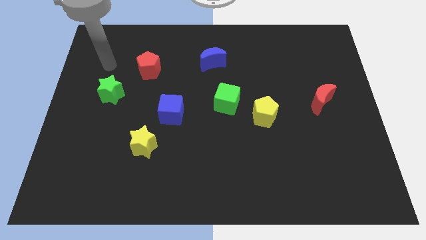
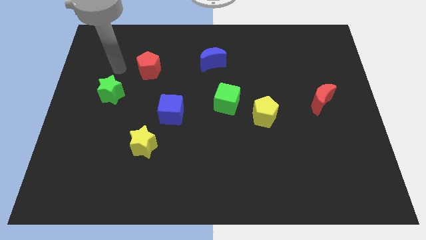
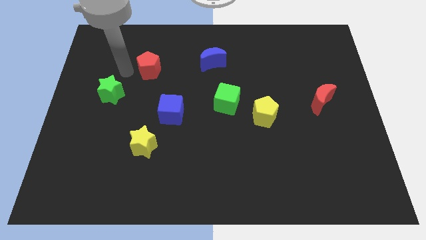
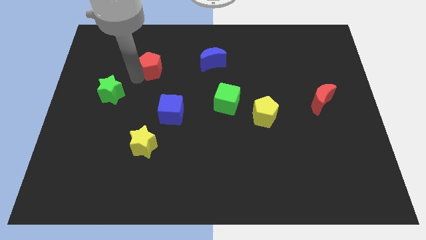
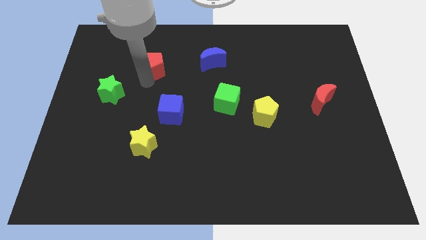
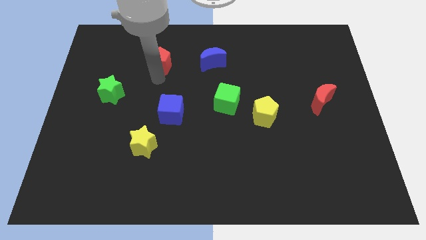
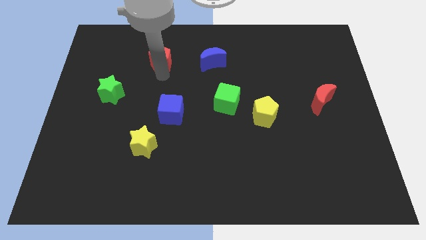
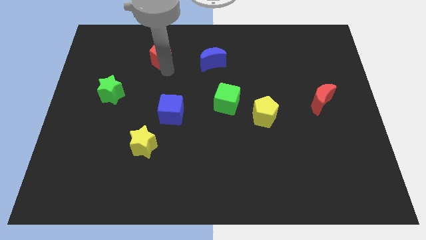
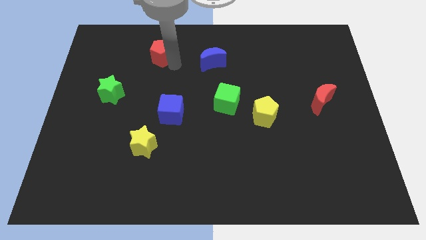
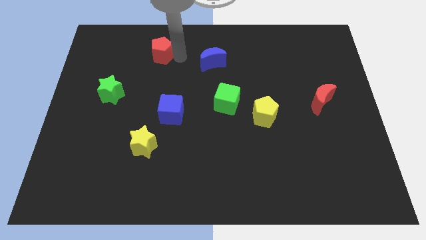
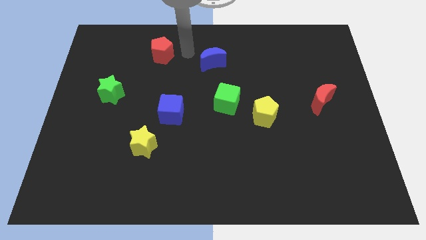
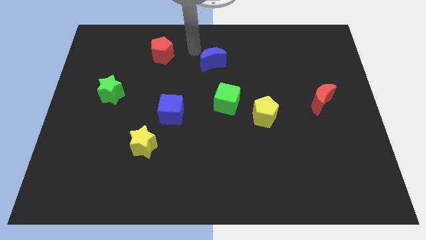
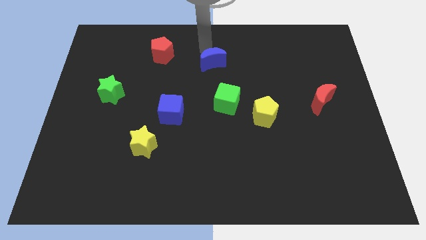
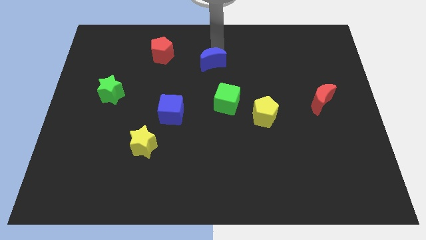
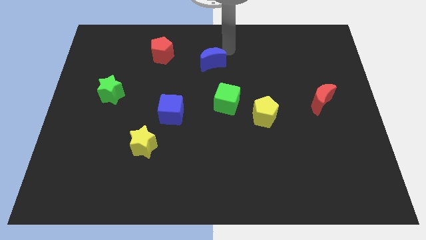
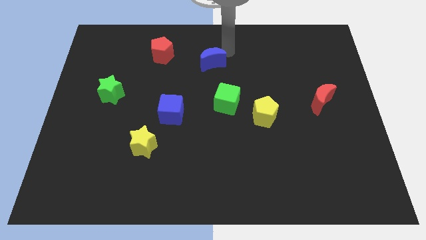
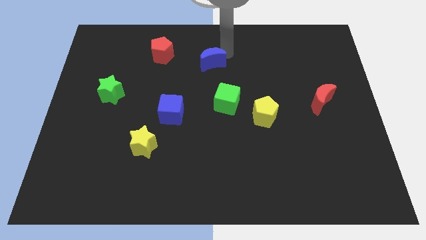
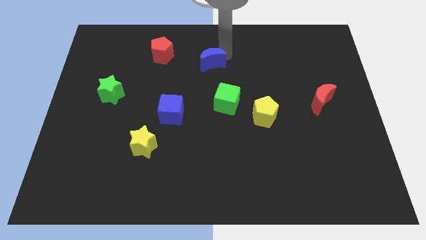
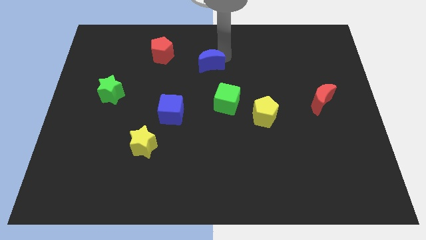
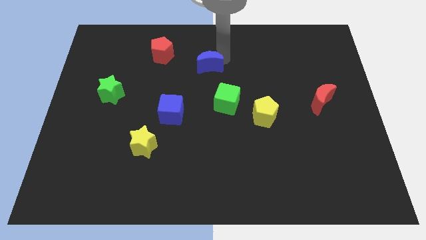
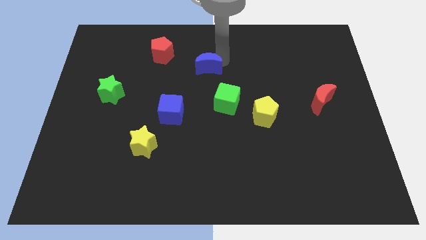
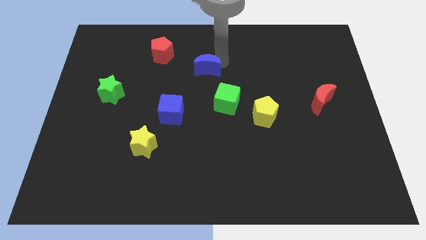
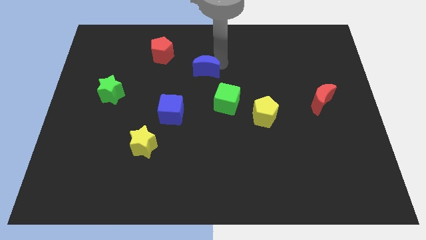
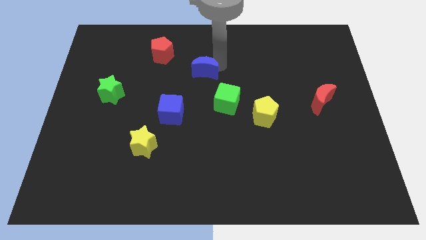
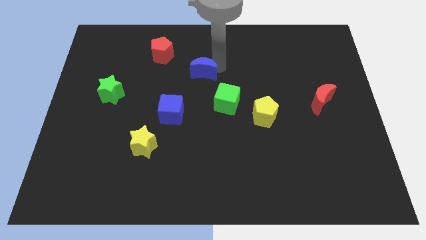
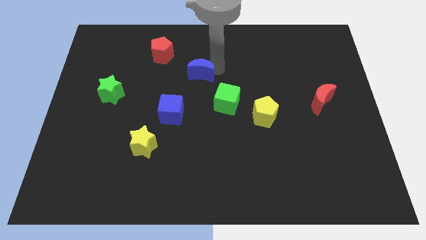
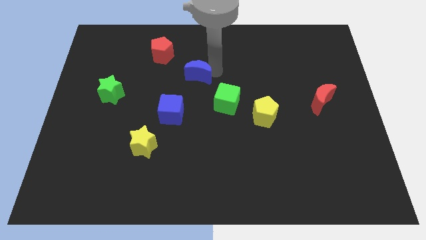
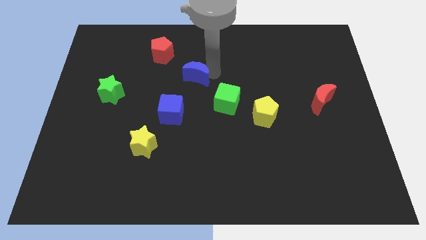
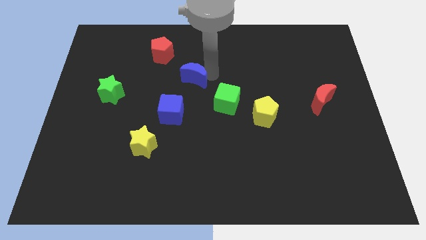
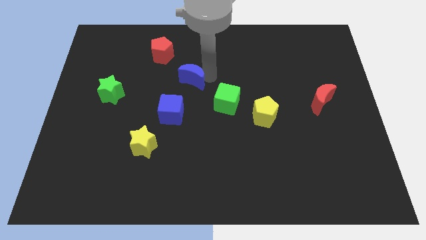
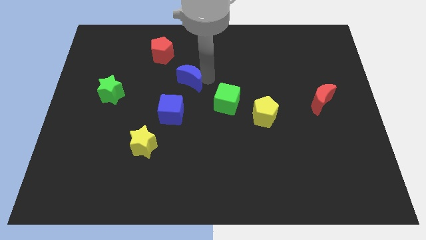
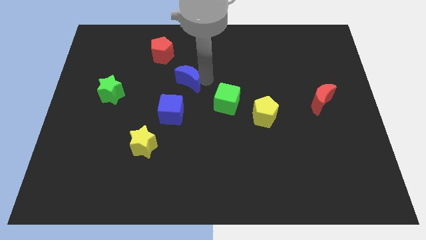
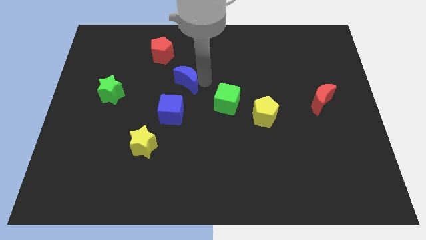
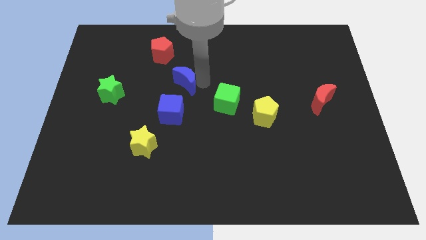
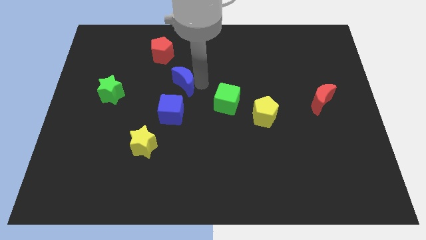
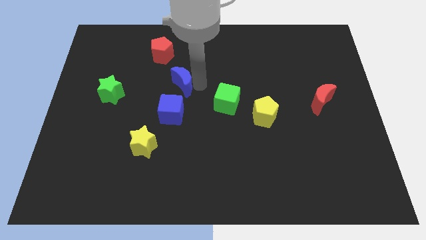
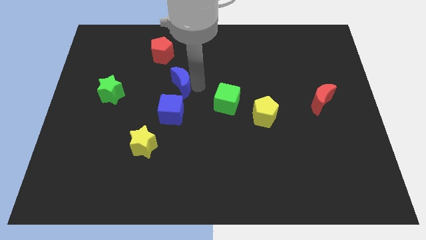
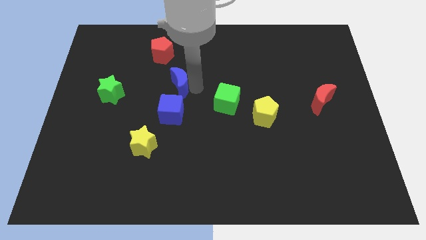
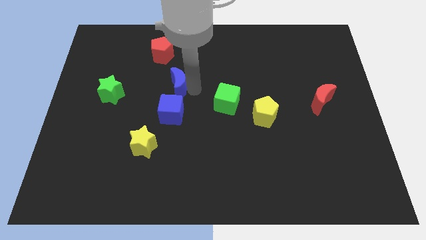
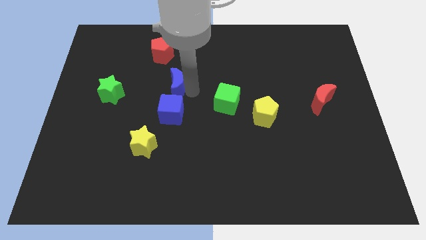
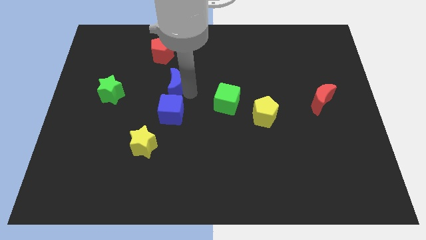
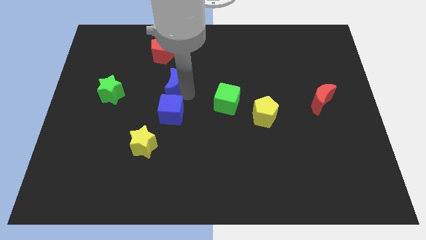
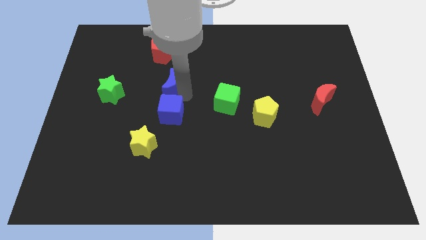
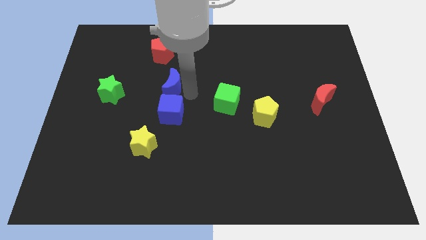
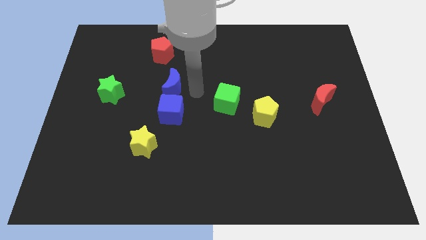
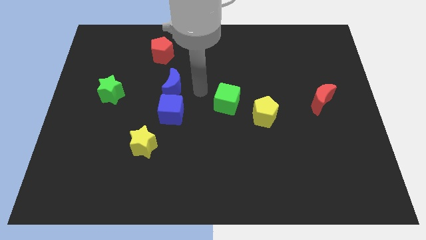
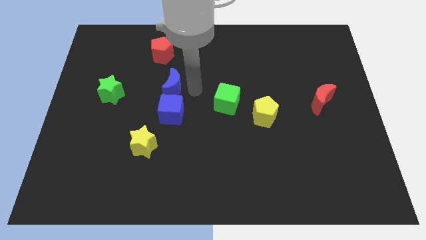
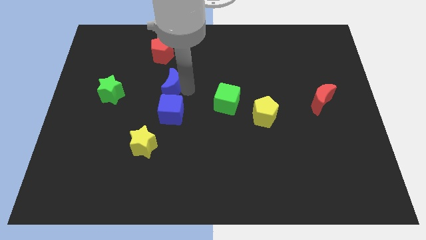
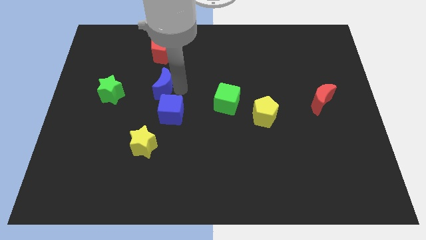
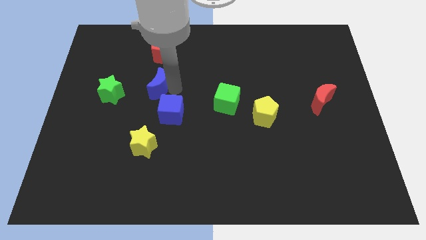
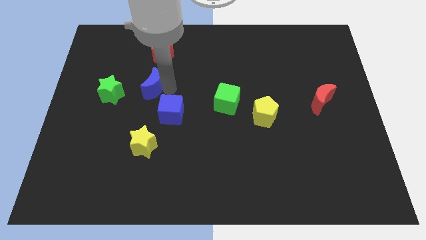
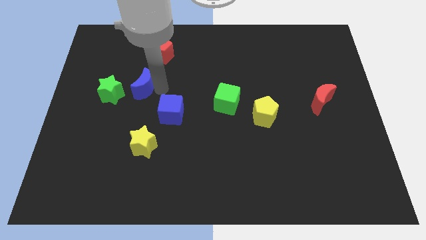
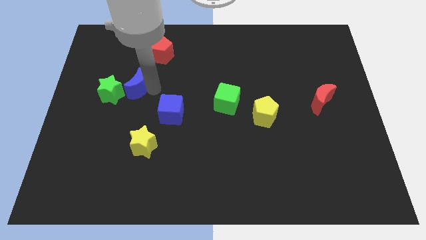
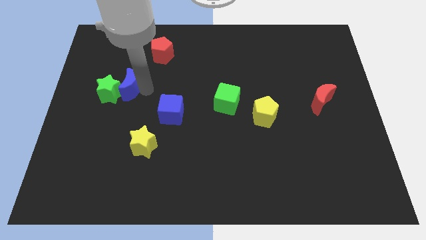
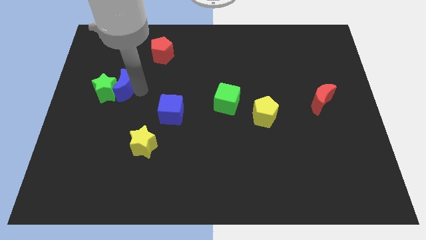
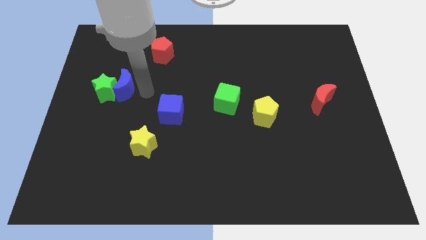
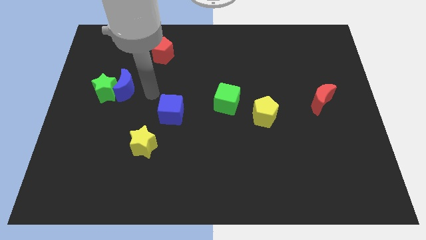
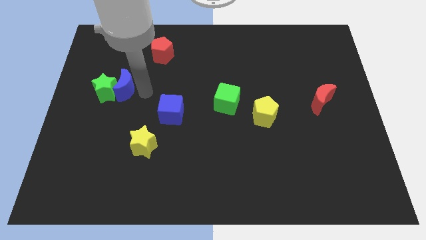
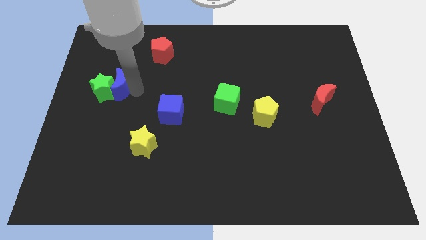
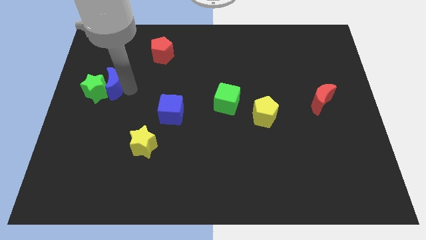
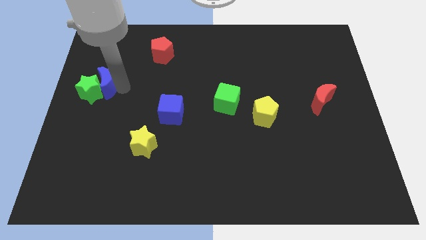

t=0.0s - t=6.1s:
slide the blue moon to the left side of the board

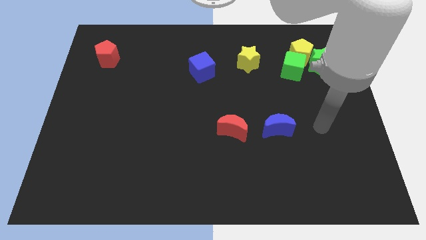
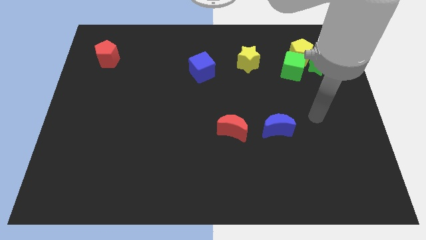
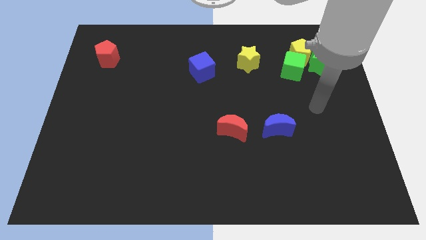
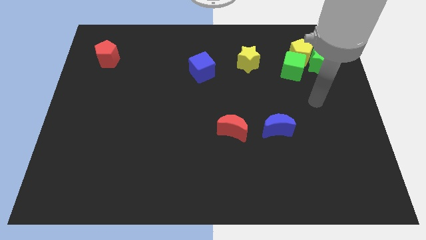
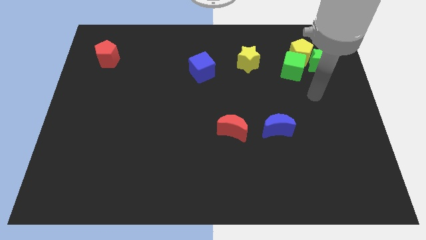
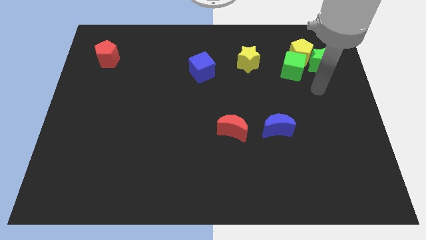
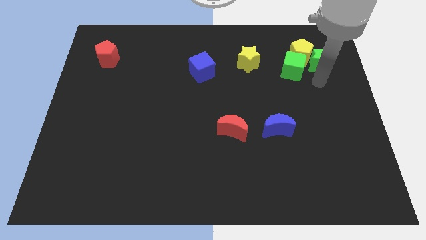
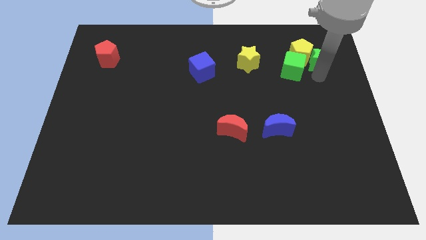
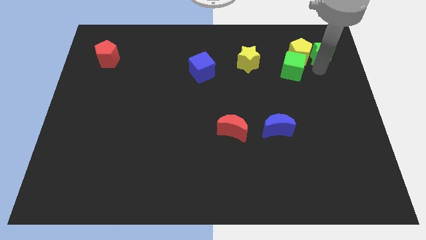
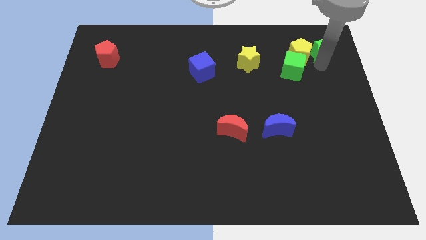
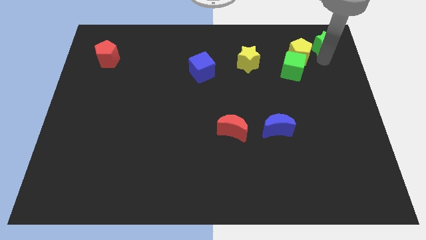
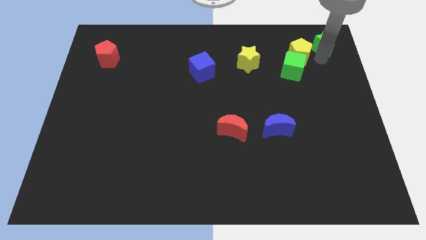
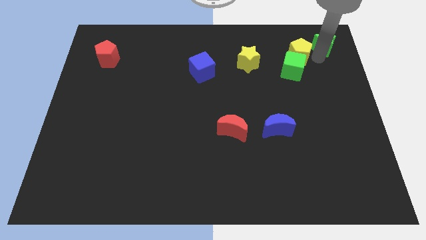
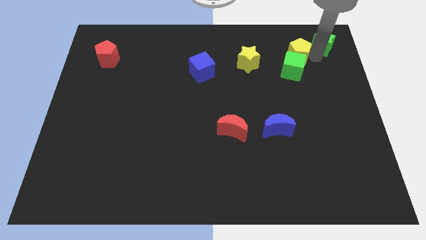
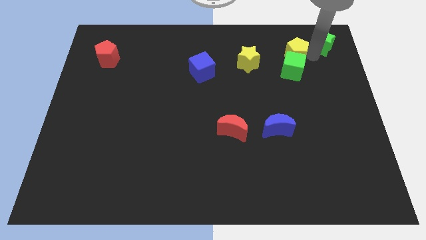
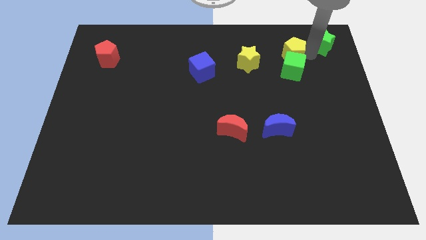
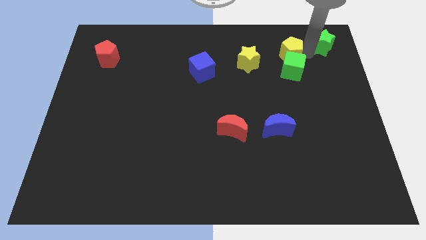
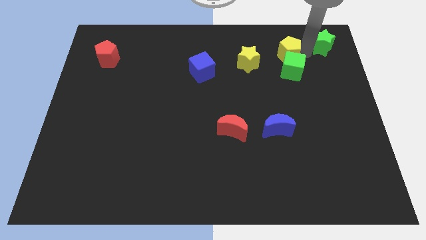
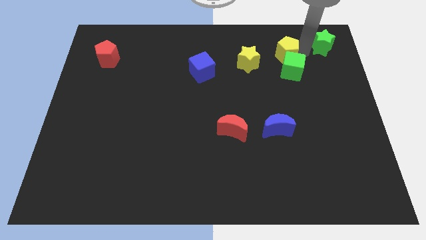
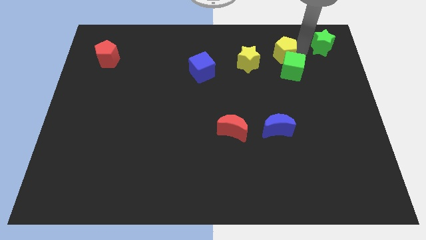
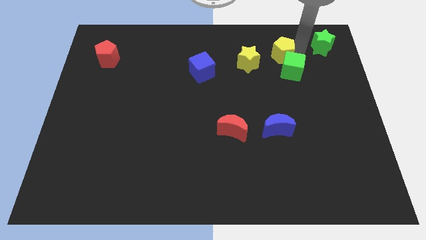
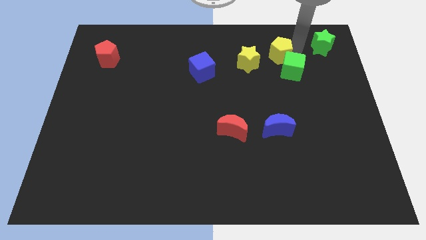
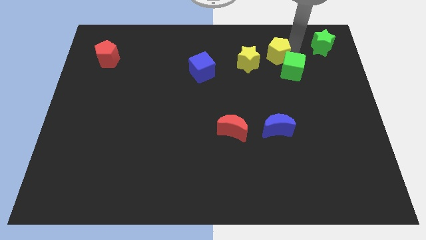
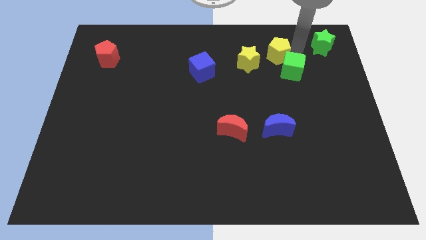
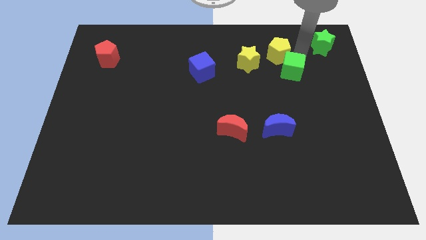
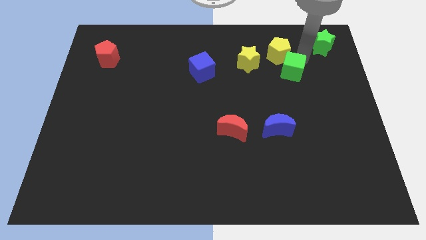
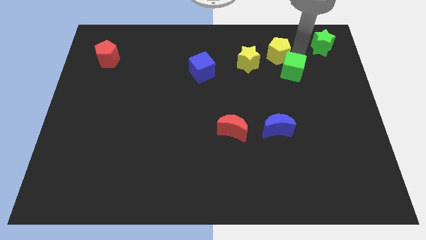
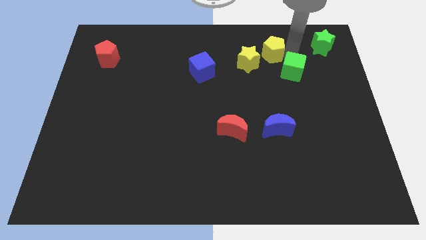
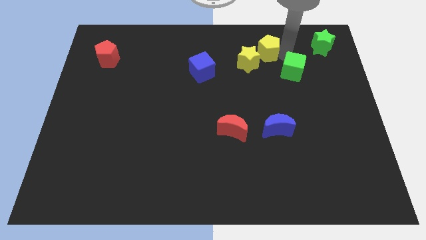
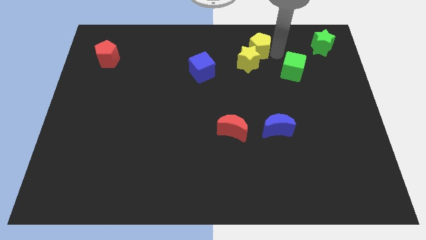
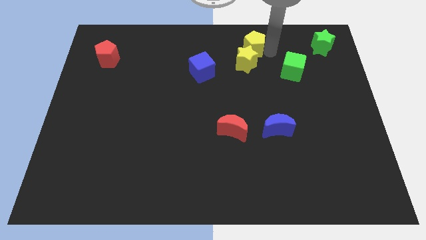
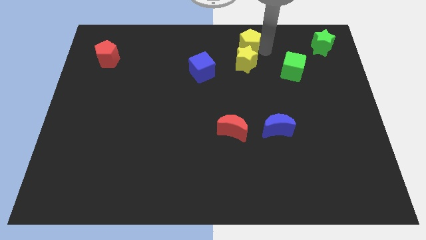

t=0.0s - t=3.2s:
put the yellow pentagon to the top side
